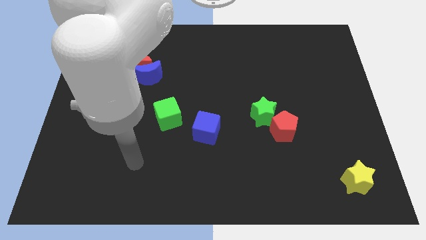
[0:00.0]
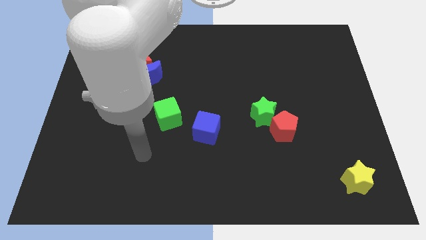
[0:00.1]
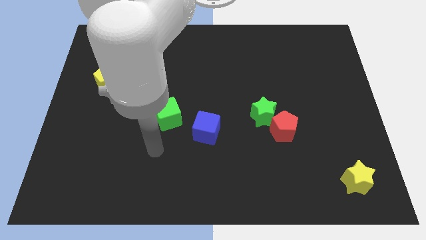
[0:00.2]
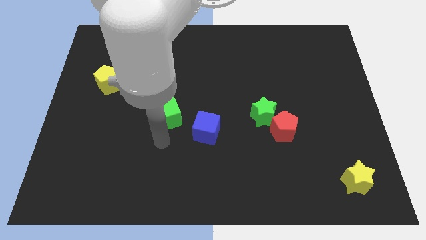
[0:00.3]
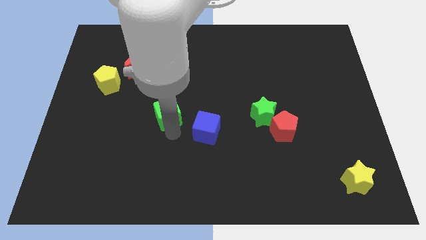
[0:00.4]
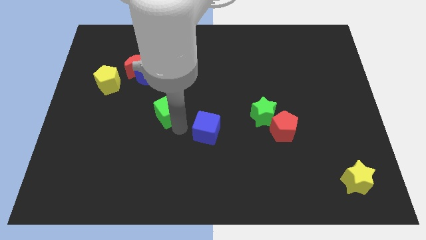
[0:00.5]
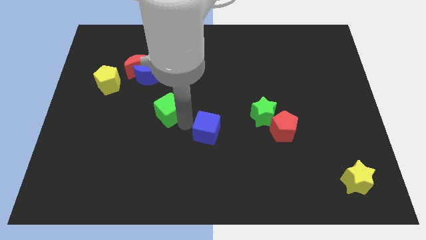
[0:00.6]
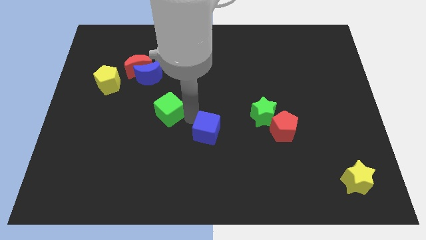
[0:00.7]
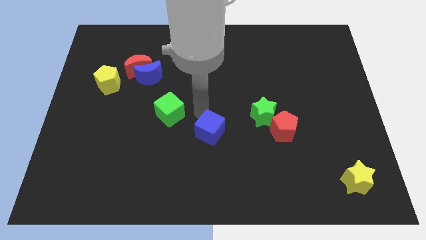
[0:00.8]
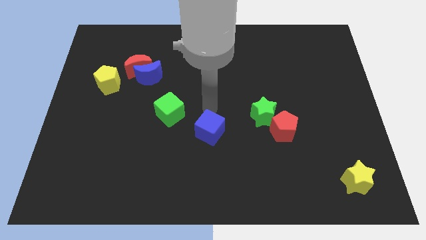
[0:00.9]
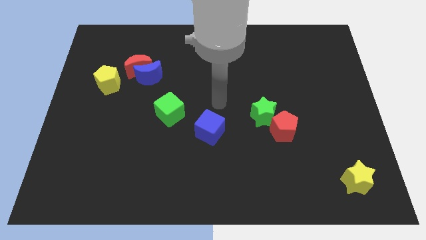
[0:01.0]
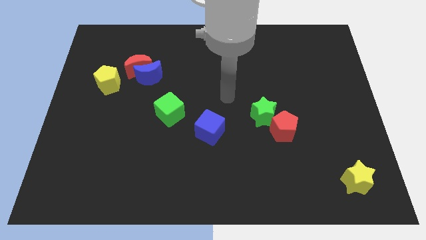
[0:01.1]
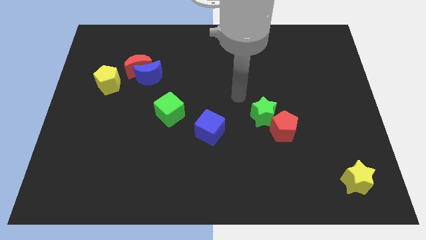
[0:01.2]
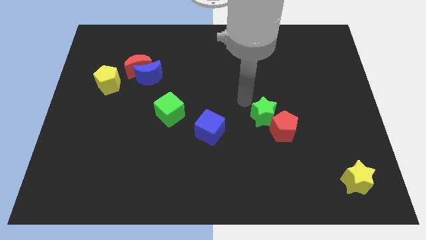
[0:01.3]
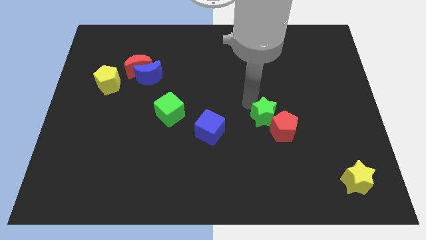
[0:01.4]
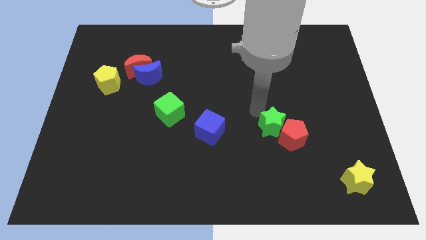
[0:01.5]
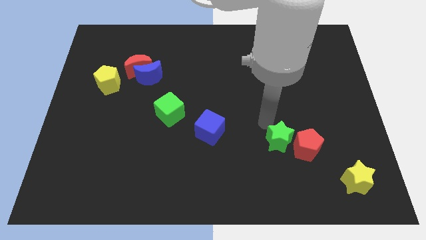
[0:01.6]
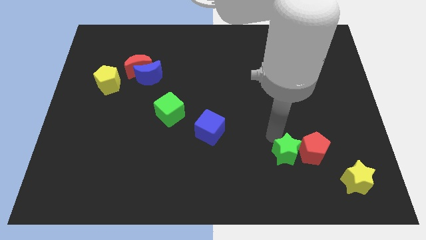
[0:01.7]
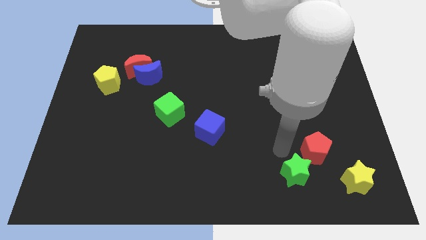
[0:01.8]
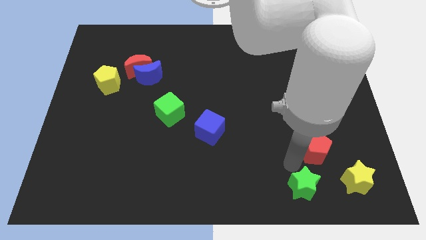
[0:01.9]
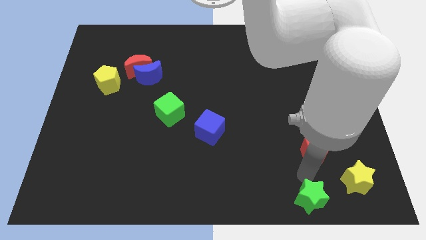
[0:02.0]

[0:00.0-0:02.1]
move the red pentagon away from the green star

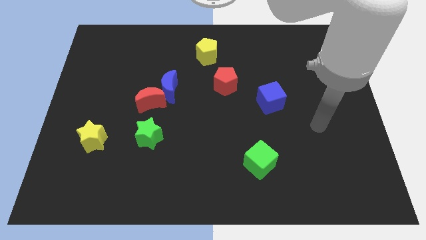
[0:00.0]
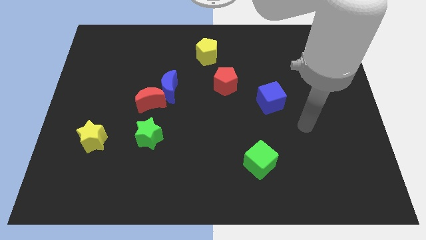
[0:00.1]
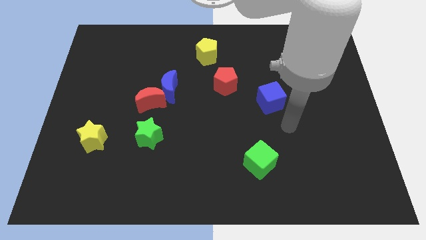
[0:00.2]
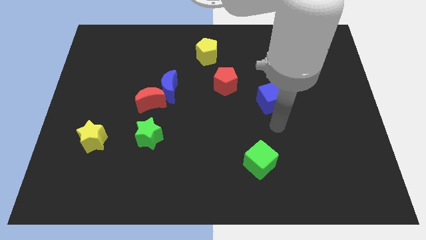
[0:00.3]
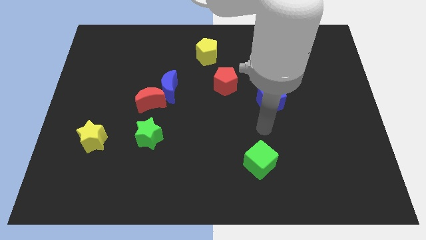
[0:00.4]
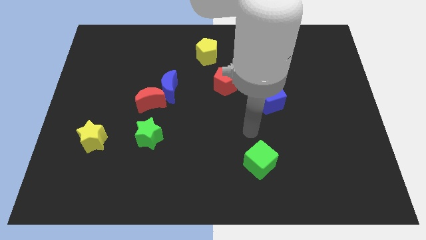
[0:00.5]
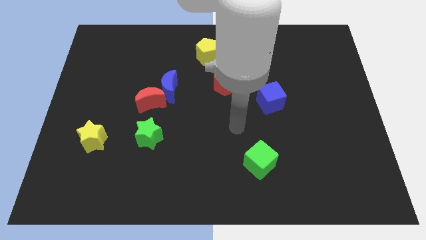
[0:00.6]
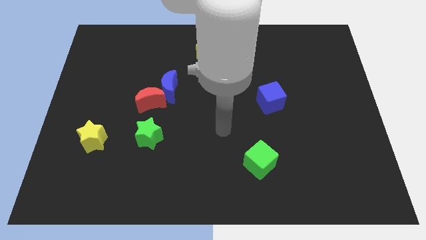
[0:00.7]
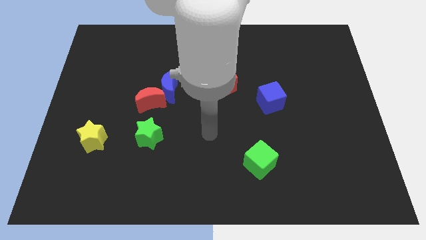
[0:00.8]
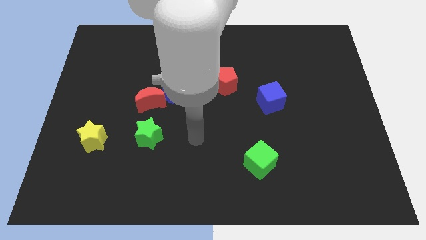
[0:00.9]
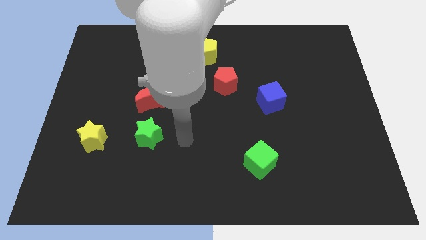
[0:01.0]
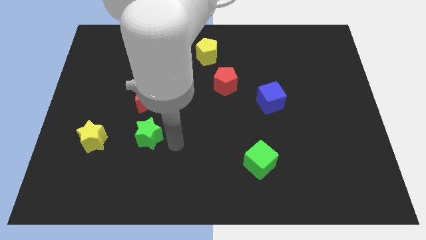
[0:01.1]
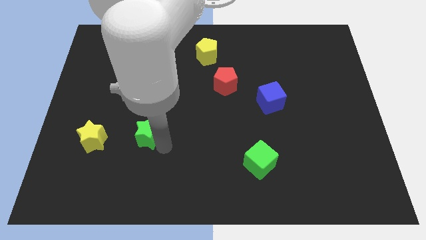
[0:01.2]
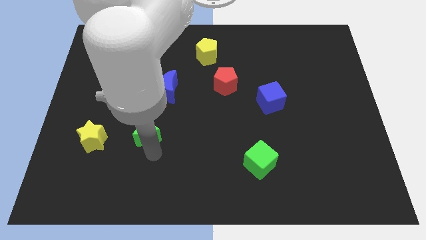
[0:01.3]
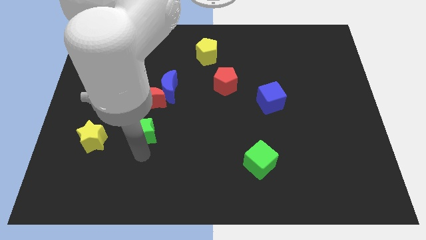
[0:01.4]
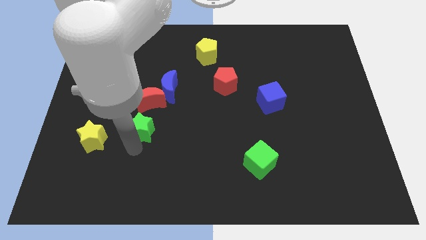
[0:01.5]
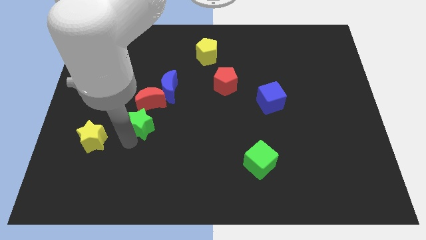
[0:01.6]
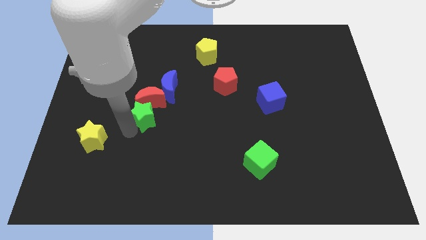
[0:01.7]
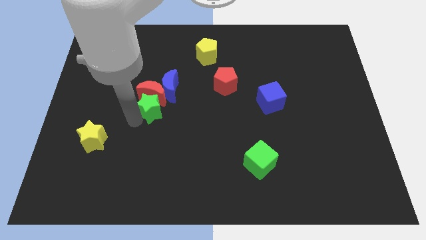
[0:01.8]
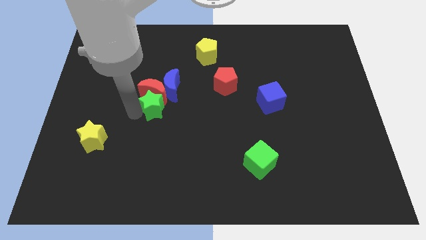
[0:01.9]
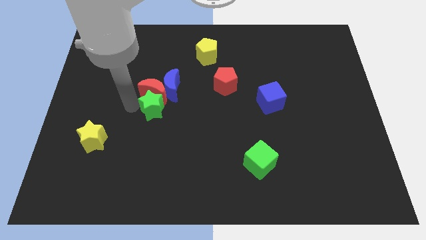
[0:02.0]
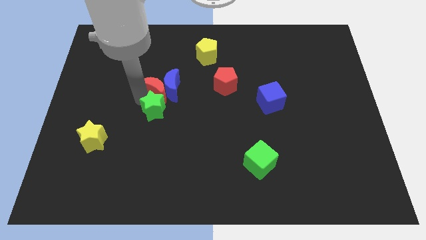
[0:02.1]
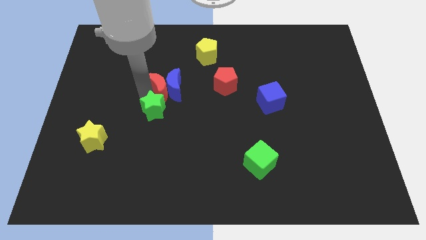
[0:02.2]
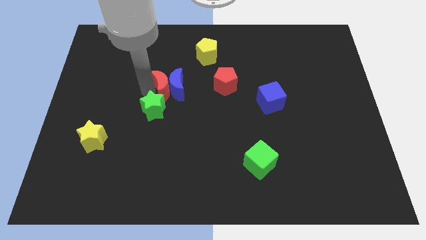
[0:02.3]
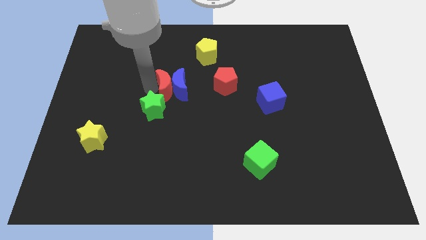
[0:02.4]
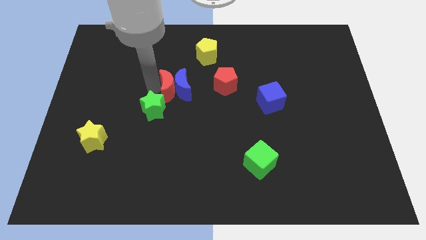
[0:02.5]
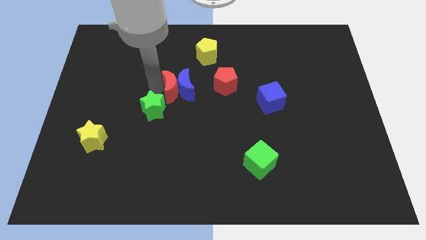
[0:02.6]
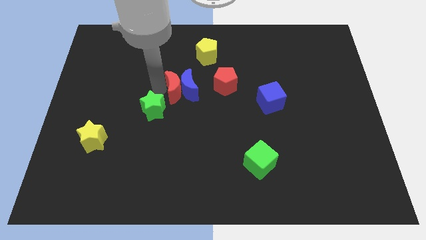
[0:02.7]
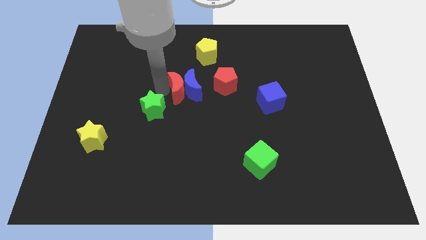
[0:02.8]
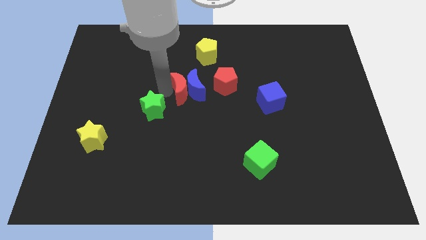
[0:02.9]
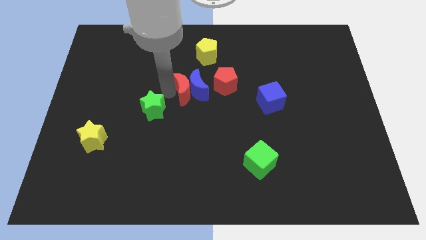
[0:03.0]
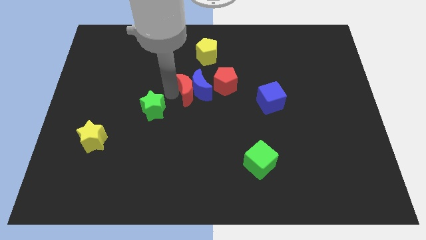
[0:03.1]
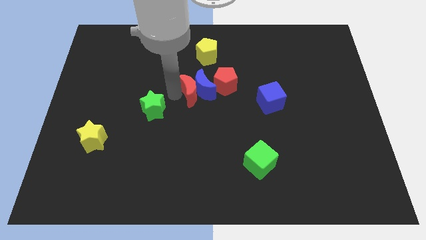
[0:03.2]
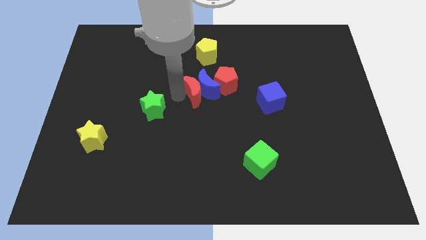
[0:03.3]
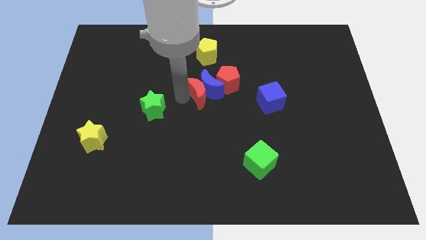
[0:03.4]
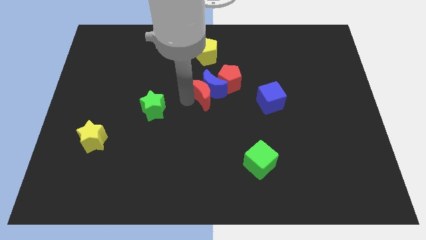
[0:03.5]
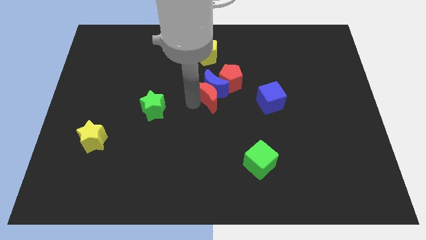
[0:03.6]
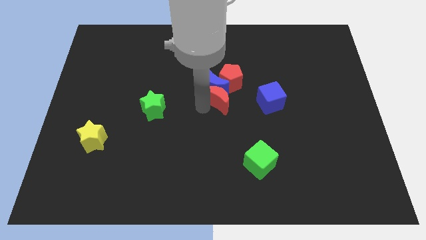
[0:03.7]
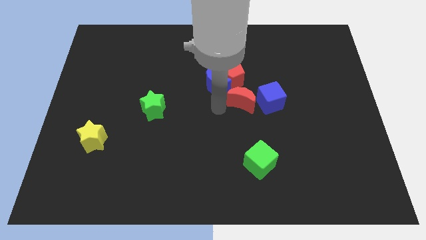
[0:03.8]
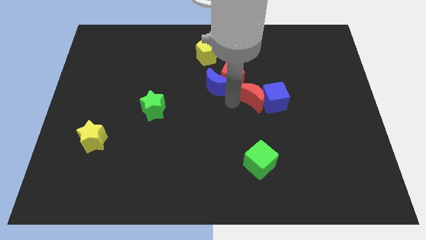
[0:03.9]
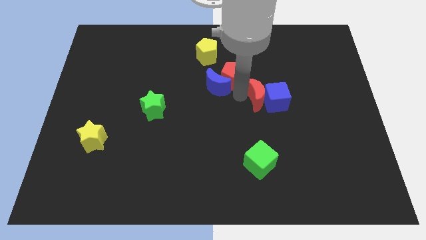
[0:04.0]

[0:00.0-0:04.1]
move the blue moon away from the red moon

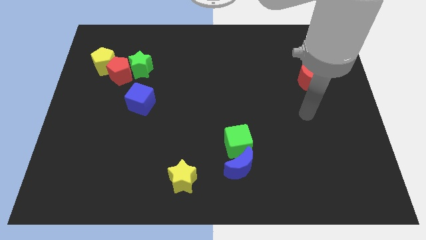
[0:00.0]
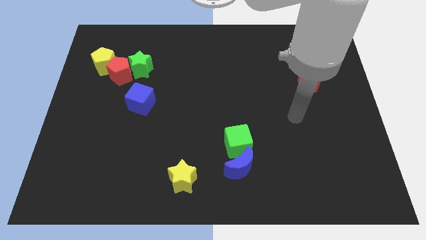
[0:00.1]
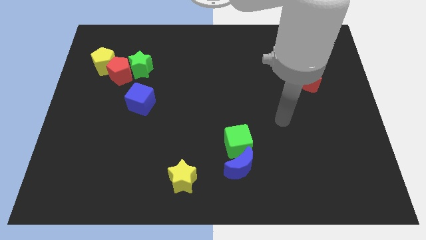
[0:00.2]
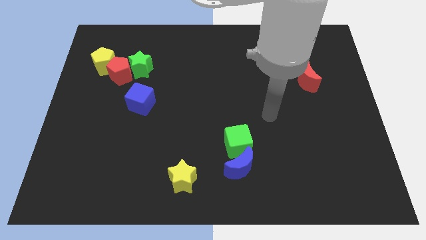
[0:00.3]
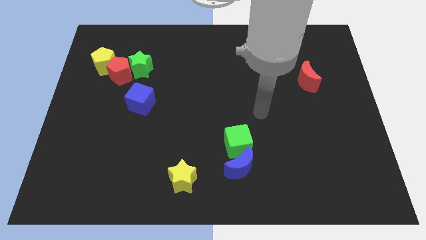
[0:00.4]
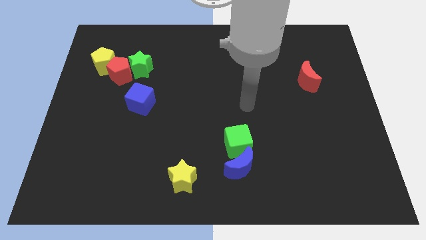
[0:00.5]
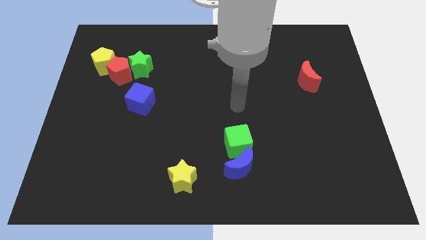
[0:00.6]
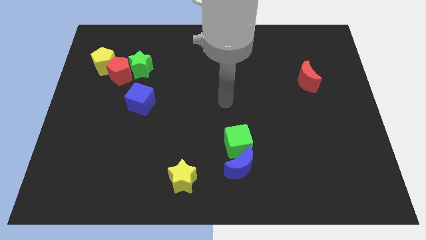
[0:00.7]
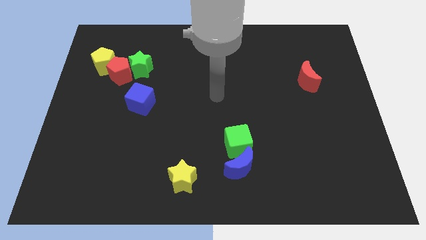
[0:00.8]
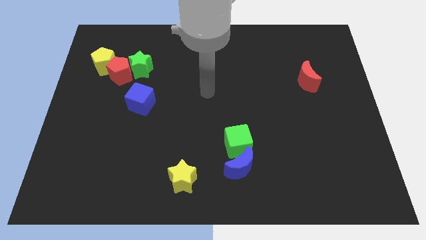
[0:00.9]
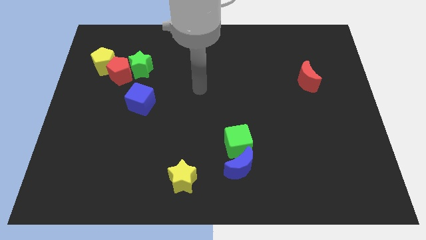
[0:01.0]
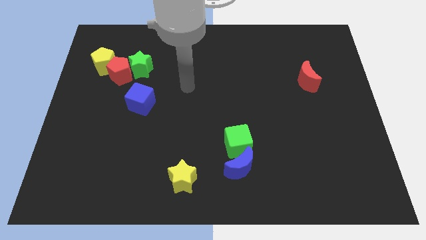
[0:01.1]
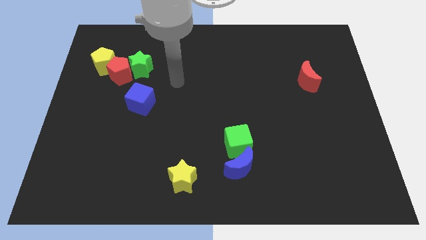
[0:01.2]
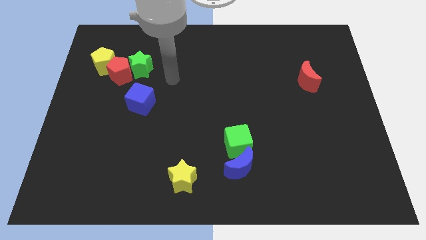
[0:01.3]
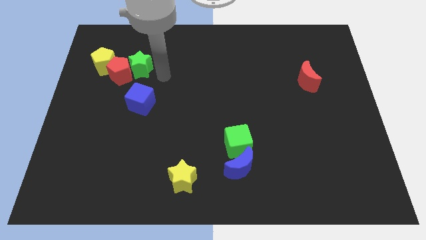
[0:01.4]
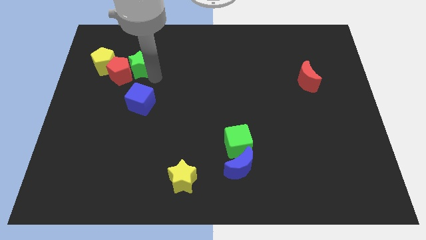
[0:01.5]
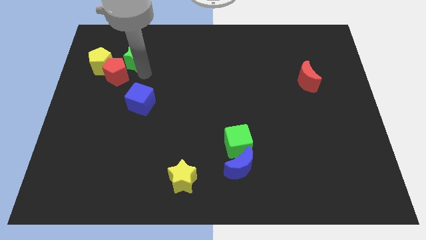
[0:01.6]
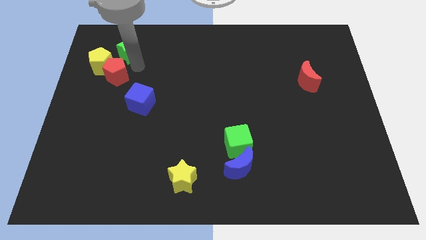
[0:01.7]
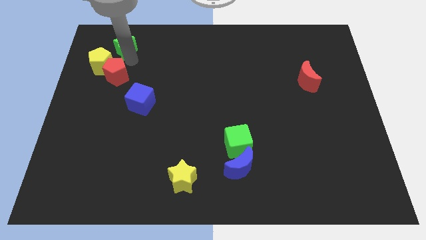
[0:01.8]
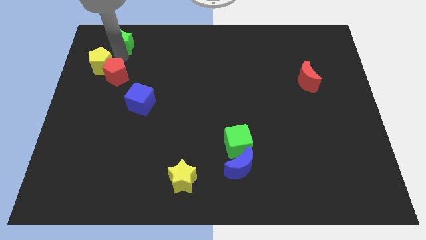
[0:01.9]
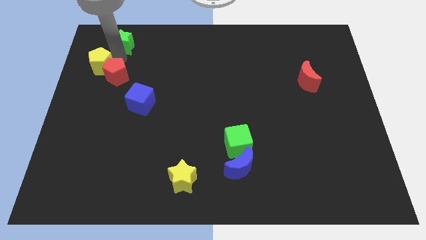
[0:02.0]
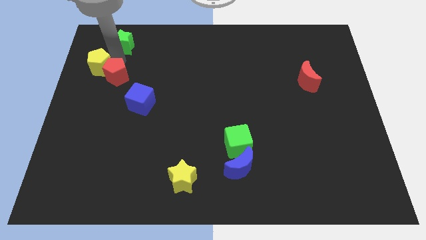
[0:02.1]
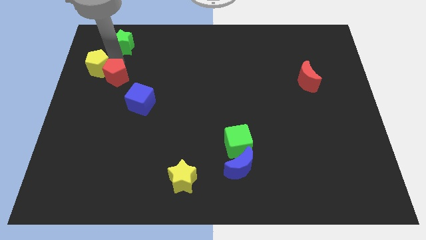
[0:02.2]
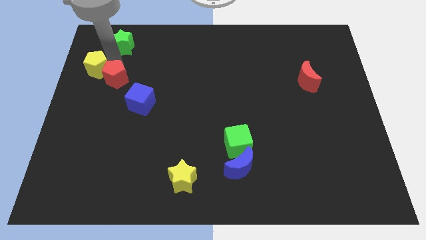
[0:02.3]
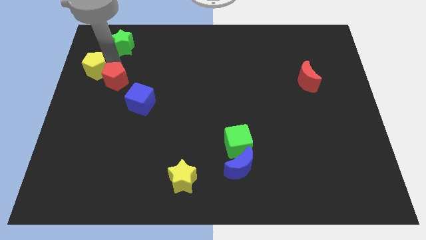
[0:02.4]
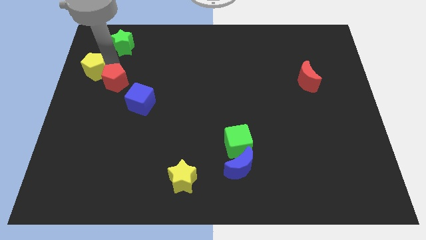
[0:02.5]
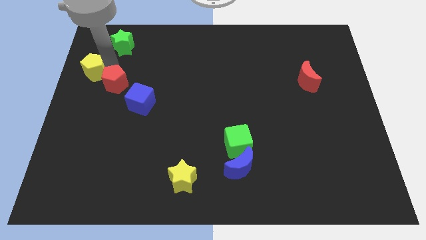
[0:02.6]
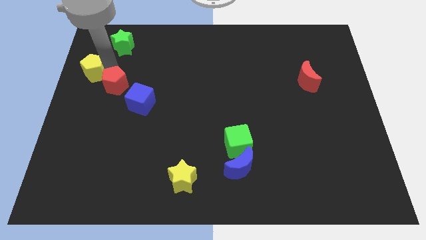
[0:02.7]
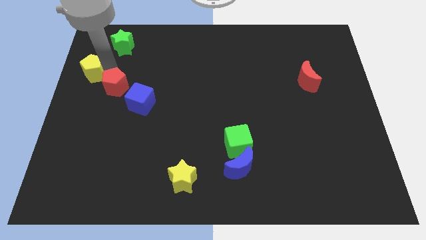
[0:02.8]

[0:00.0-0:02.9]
move the red pentagon away from the green star and yellow pentagon
